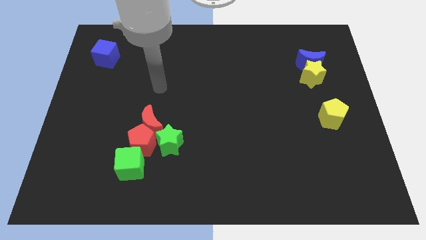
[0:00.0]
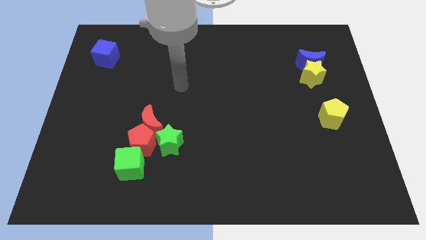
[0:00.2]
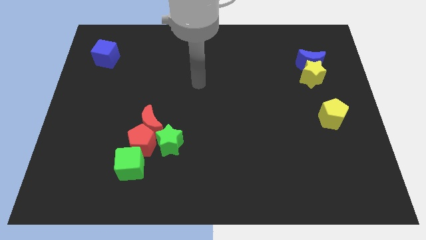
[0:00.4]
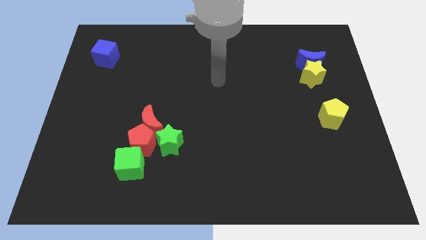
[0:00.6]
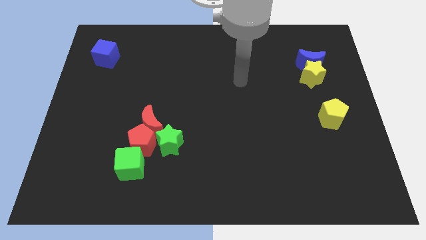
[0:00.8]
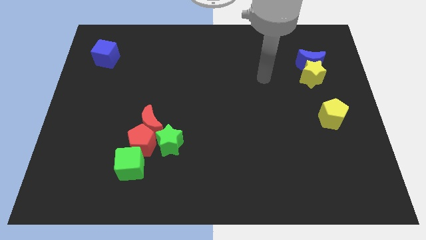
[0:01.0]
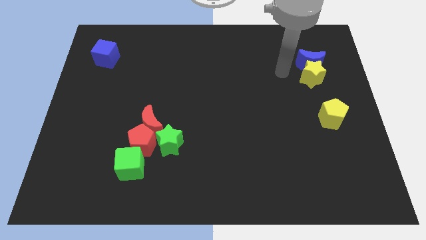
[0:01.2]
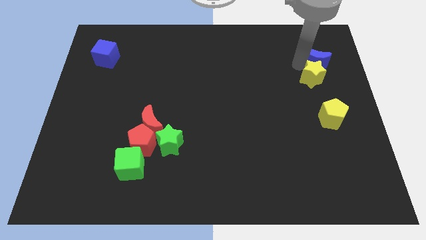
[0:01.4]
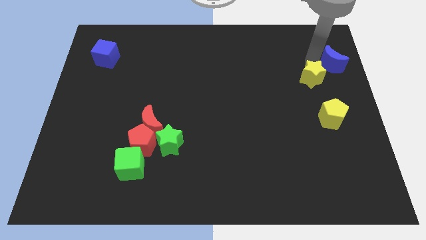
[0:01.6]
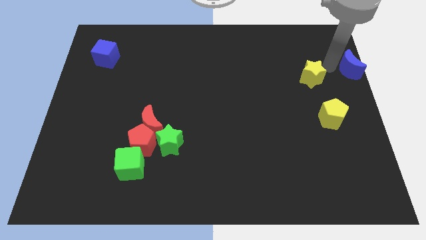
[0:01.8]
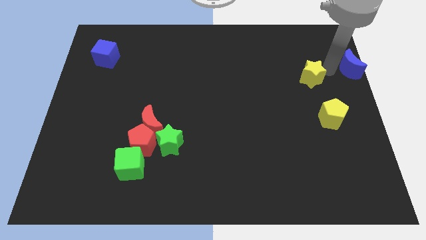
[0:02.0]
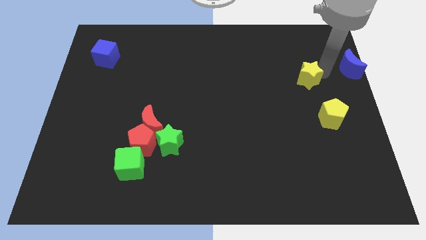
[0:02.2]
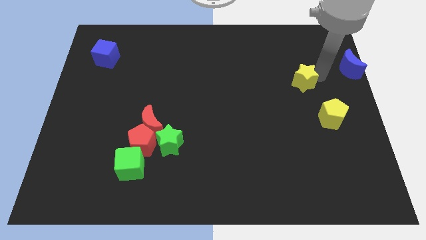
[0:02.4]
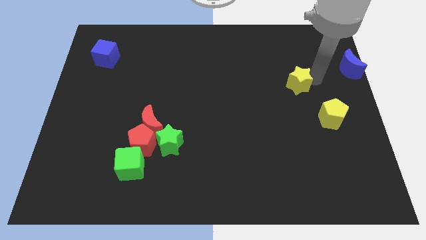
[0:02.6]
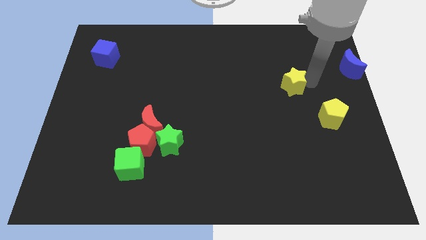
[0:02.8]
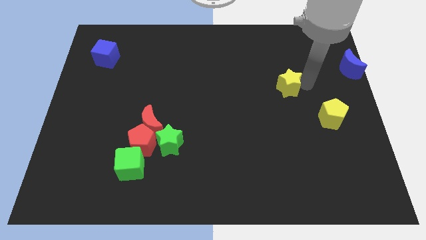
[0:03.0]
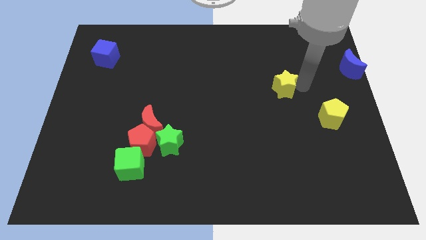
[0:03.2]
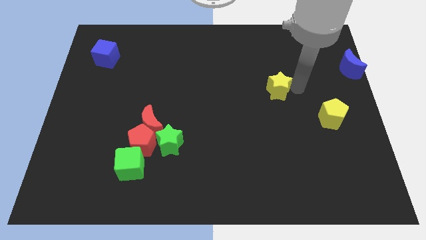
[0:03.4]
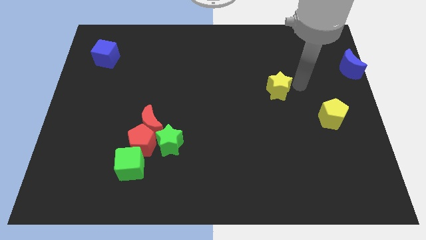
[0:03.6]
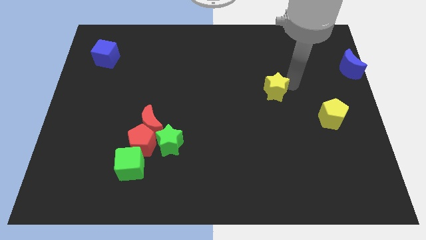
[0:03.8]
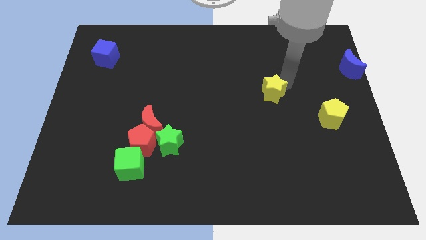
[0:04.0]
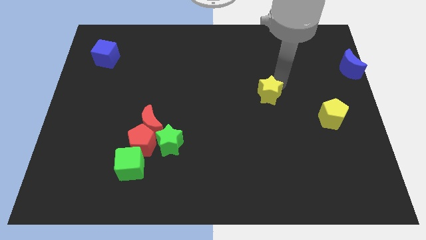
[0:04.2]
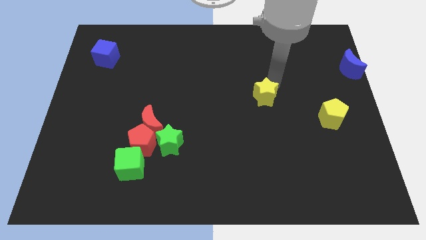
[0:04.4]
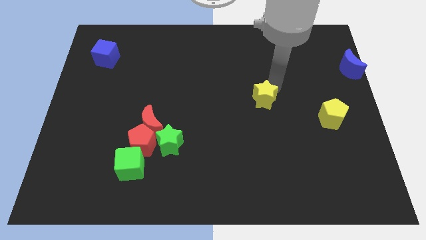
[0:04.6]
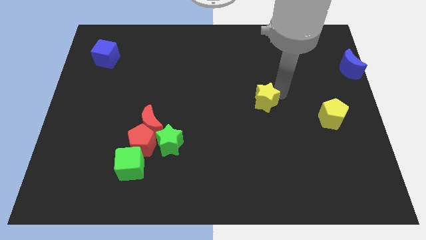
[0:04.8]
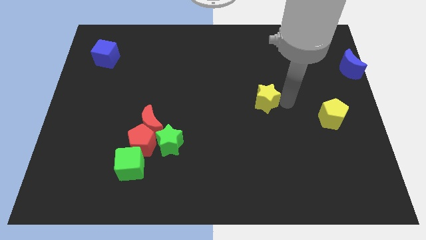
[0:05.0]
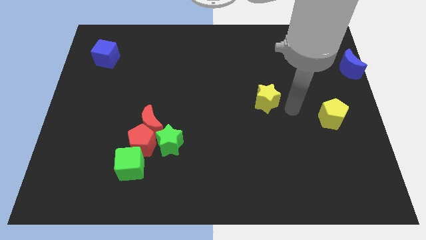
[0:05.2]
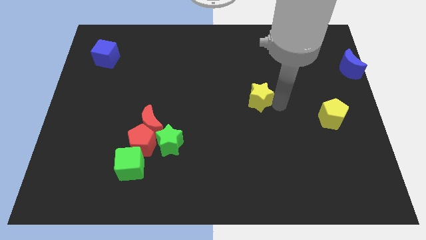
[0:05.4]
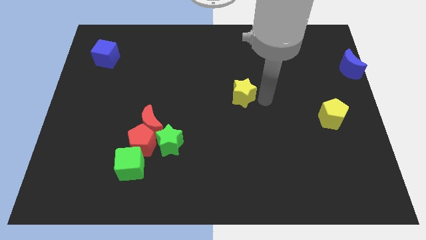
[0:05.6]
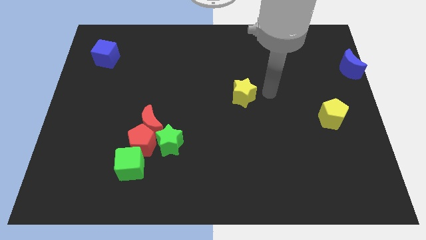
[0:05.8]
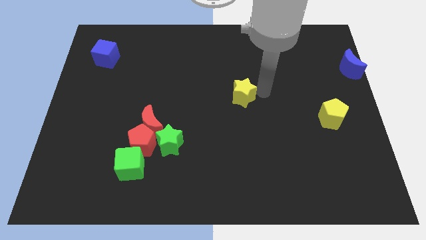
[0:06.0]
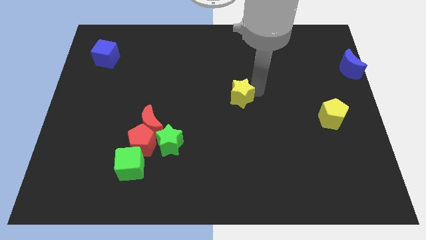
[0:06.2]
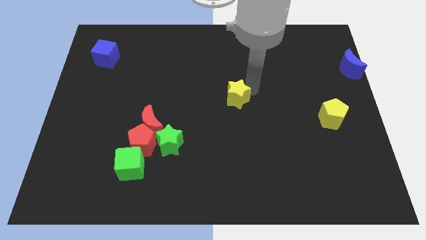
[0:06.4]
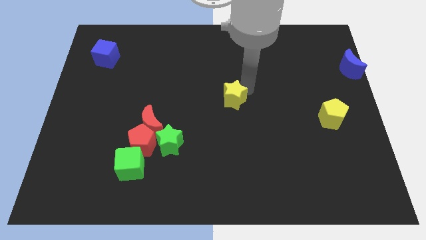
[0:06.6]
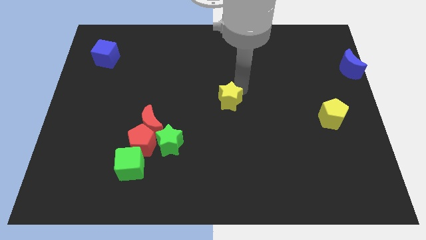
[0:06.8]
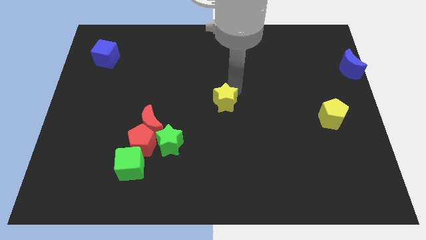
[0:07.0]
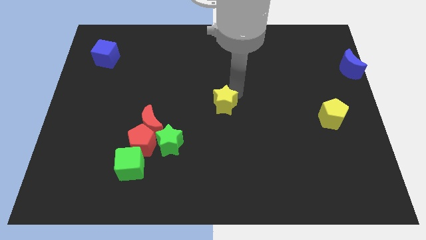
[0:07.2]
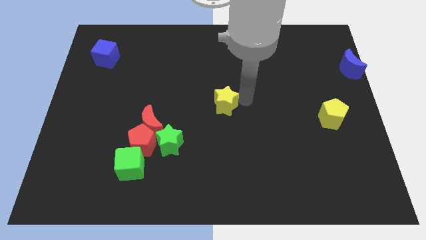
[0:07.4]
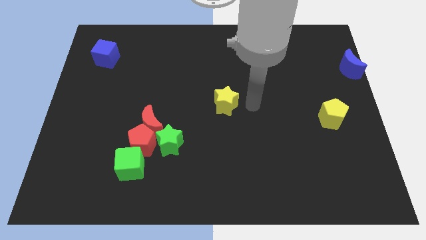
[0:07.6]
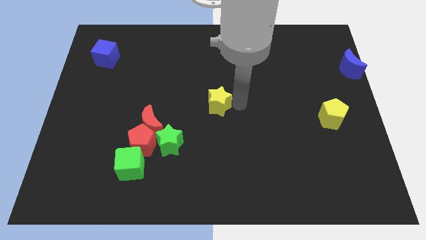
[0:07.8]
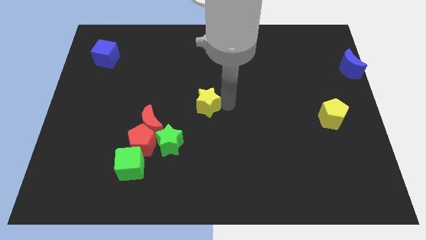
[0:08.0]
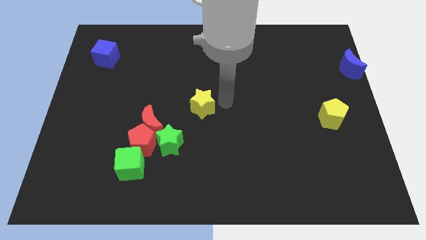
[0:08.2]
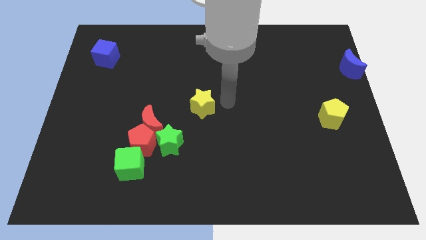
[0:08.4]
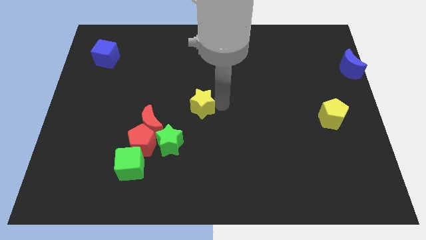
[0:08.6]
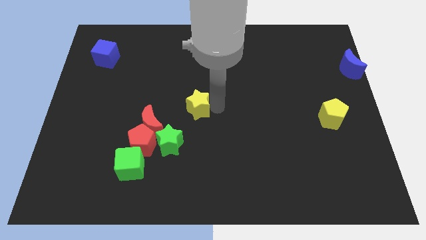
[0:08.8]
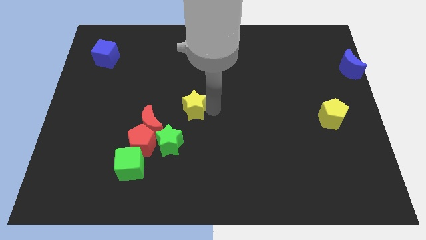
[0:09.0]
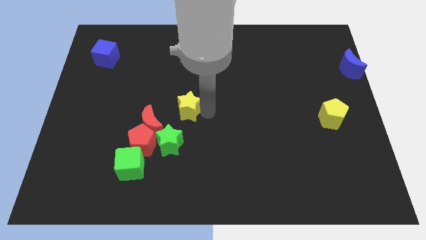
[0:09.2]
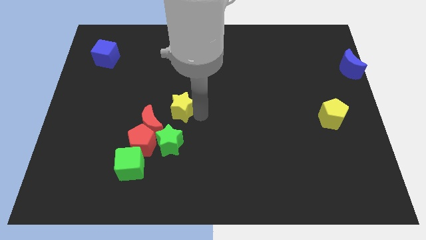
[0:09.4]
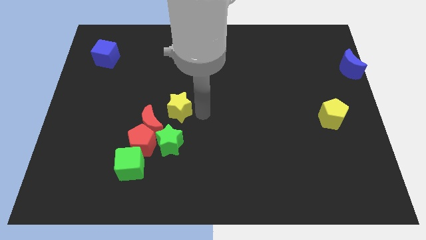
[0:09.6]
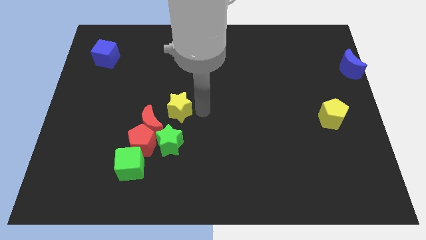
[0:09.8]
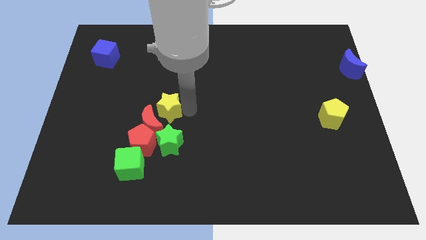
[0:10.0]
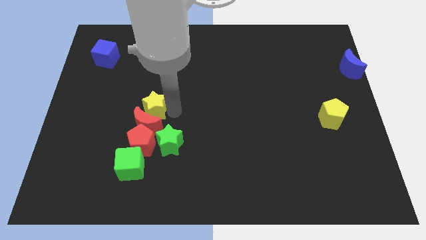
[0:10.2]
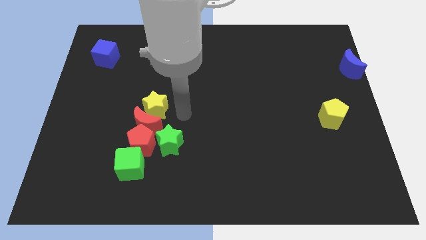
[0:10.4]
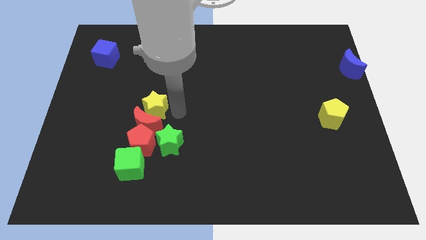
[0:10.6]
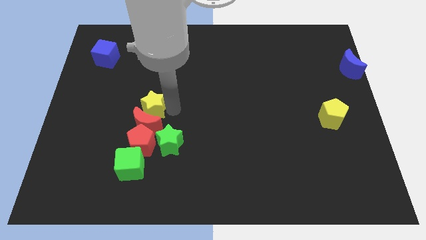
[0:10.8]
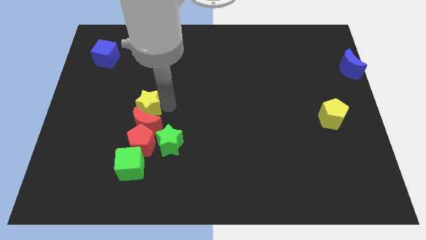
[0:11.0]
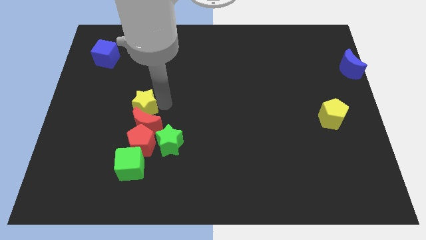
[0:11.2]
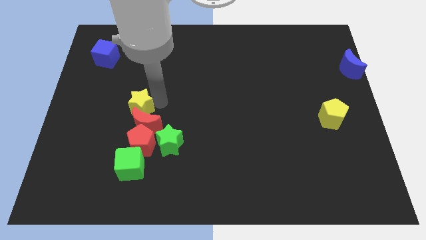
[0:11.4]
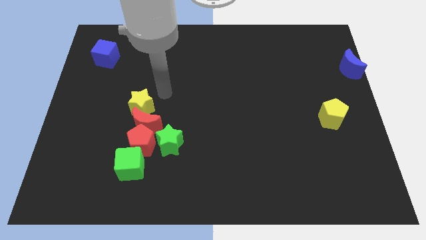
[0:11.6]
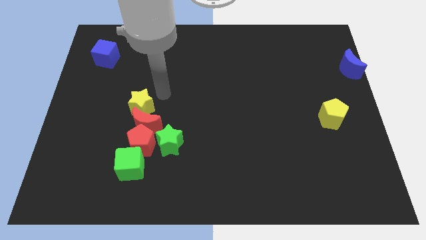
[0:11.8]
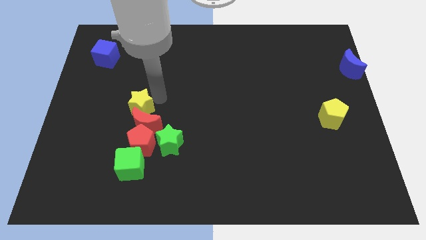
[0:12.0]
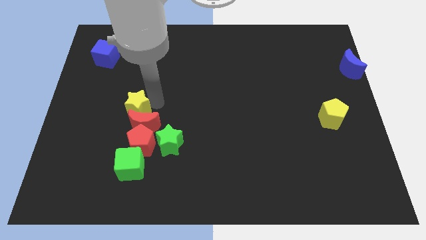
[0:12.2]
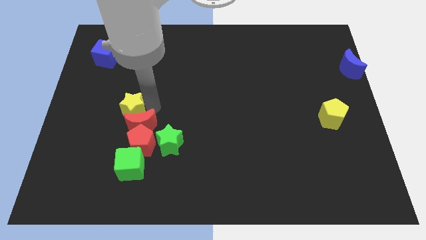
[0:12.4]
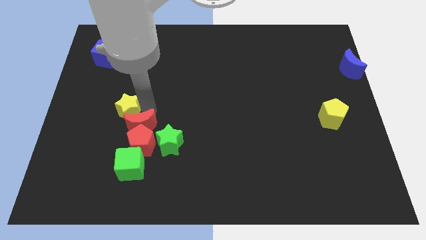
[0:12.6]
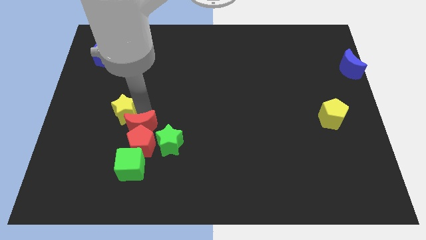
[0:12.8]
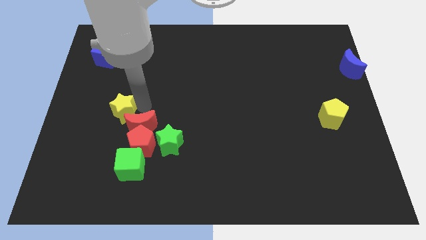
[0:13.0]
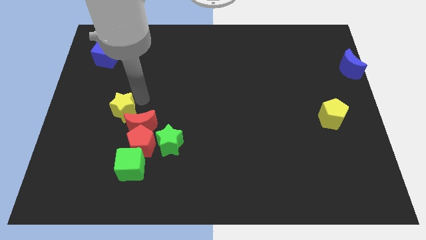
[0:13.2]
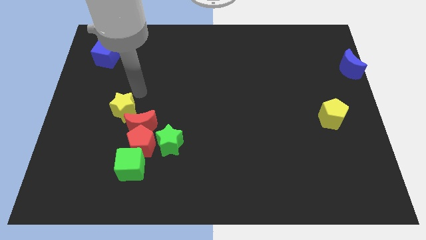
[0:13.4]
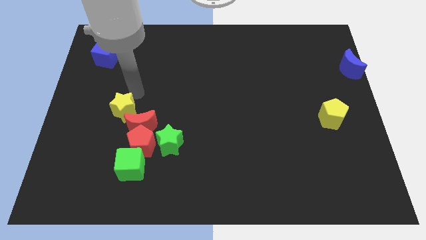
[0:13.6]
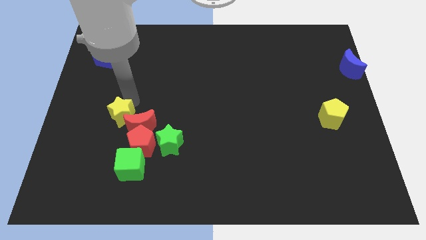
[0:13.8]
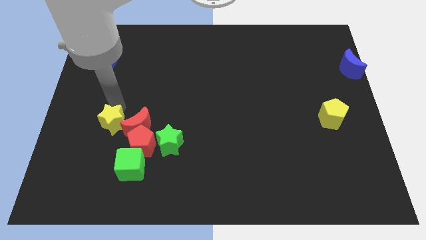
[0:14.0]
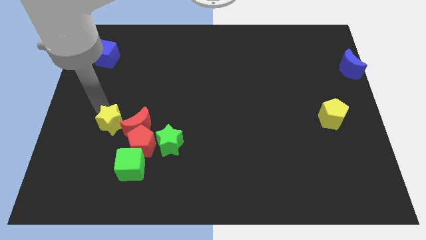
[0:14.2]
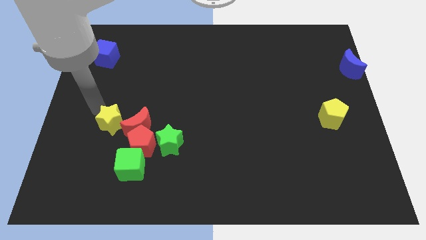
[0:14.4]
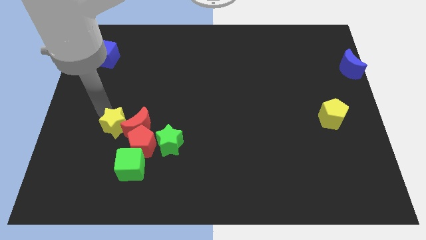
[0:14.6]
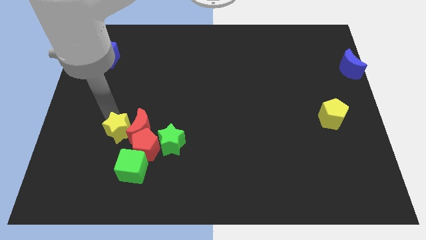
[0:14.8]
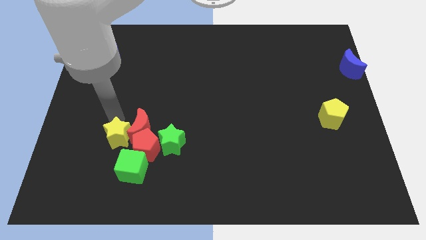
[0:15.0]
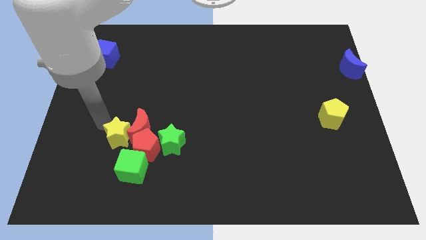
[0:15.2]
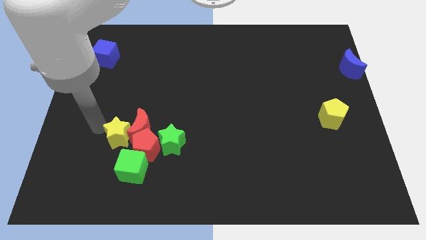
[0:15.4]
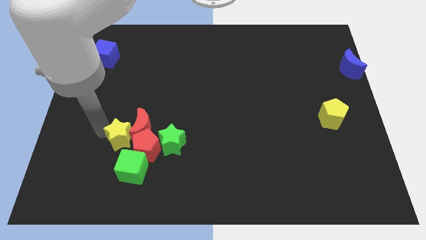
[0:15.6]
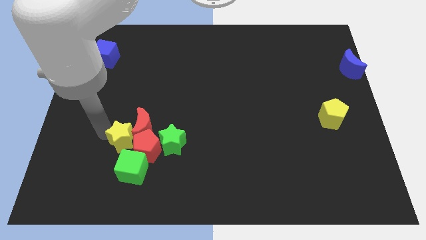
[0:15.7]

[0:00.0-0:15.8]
put the yellow star towards the red pentagon
